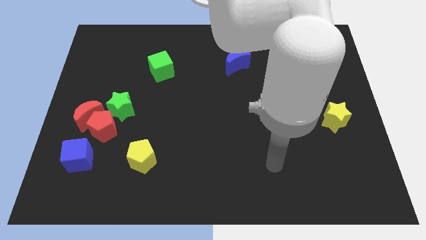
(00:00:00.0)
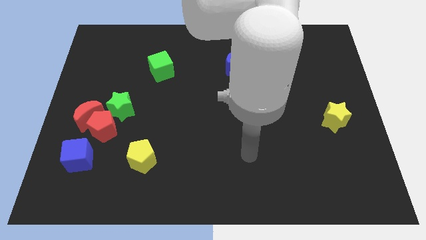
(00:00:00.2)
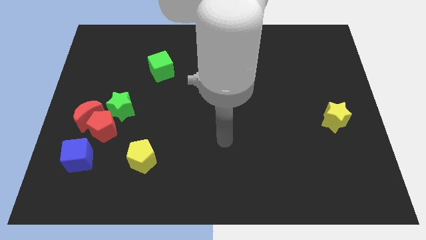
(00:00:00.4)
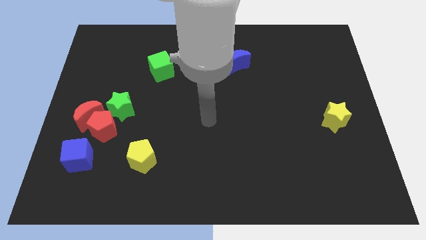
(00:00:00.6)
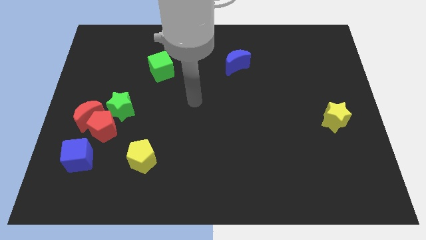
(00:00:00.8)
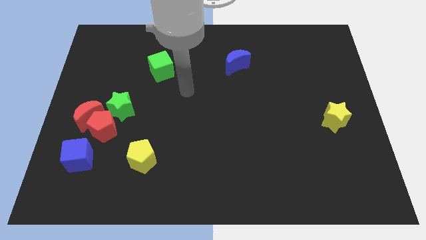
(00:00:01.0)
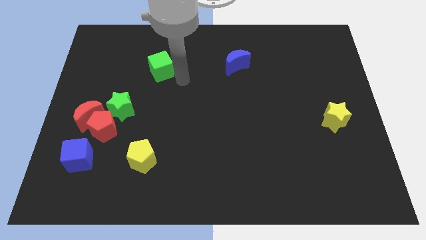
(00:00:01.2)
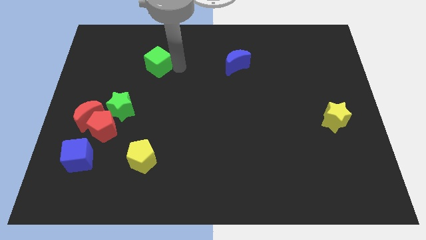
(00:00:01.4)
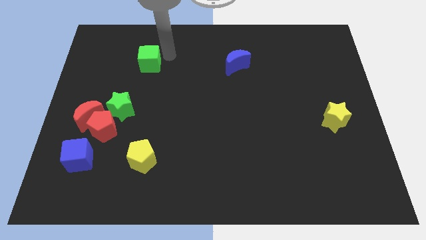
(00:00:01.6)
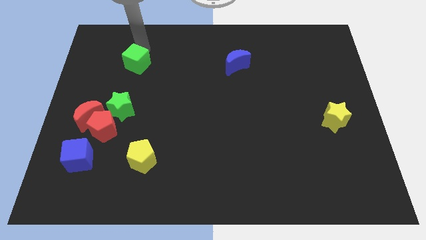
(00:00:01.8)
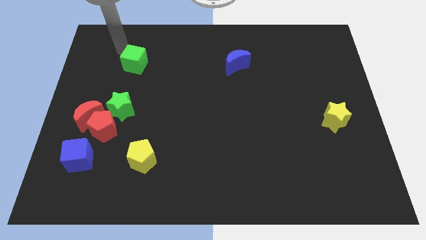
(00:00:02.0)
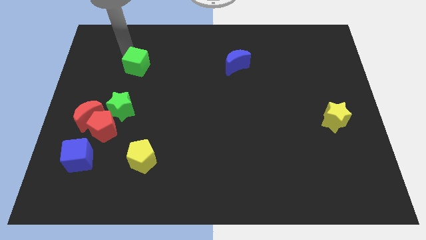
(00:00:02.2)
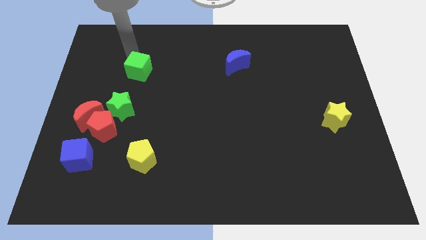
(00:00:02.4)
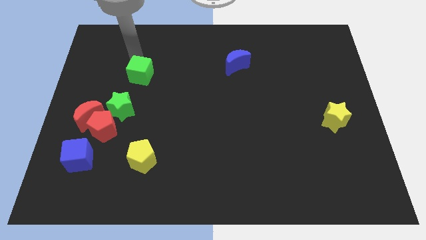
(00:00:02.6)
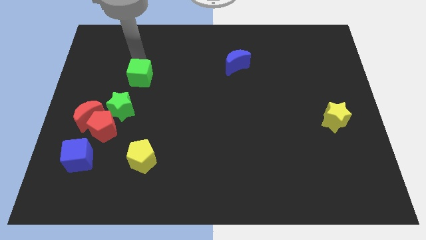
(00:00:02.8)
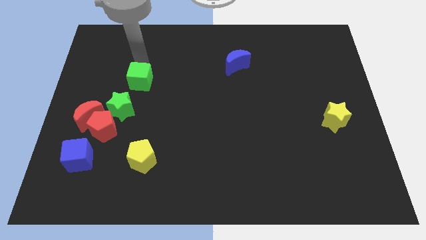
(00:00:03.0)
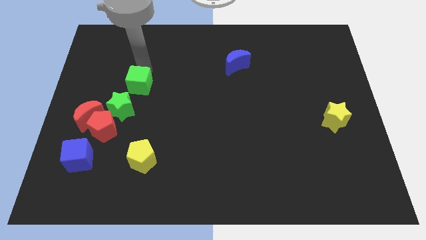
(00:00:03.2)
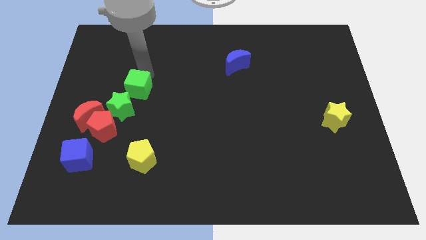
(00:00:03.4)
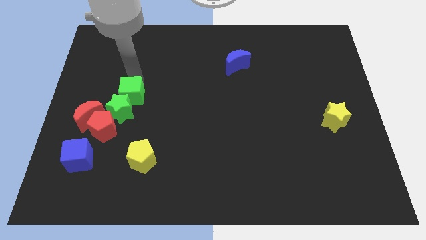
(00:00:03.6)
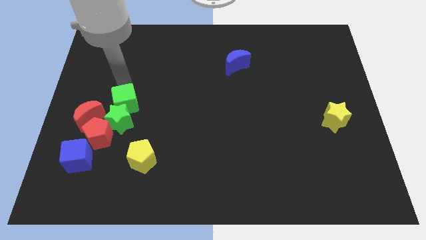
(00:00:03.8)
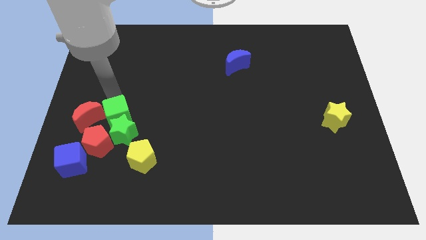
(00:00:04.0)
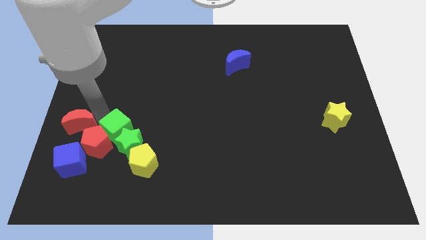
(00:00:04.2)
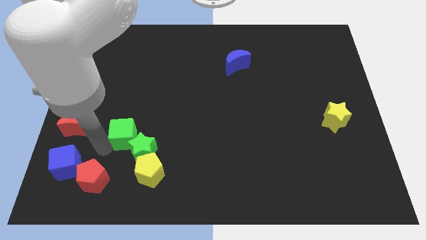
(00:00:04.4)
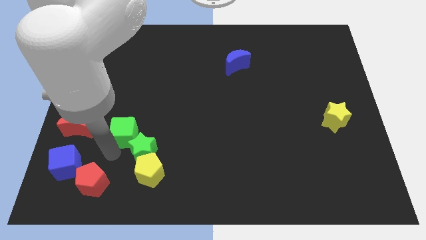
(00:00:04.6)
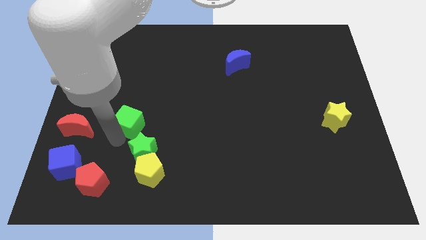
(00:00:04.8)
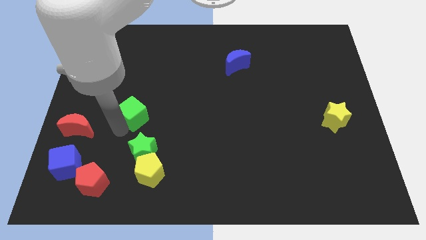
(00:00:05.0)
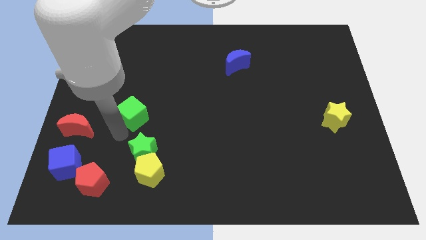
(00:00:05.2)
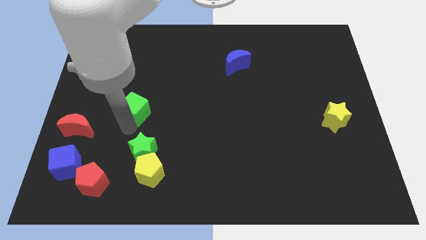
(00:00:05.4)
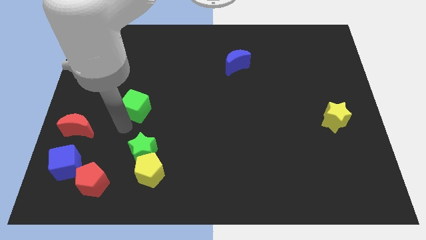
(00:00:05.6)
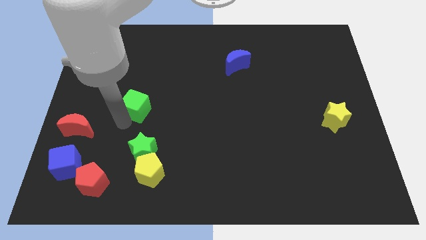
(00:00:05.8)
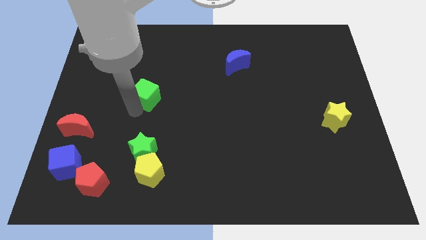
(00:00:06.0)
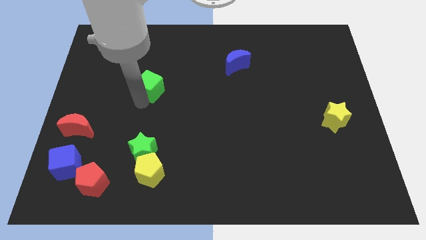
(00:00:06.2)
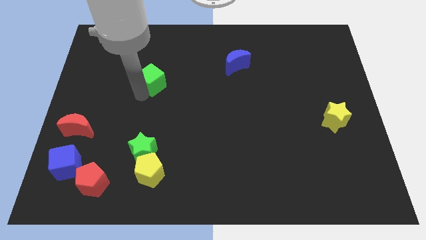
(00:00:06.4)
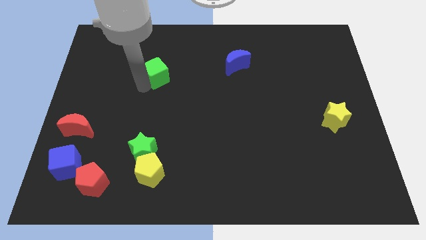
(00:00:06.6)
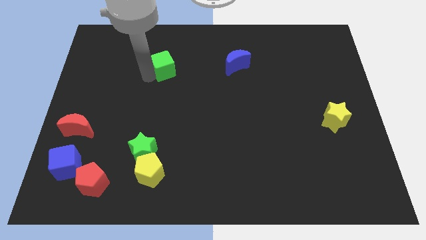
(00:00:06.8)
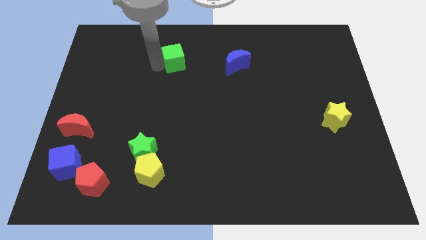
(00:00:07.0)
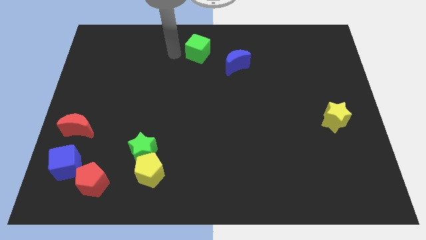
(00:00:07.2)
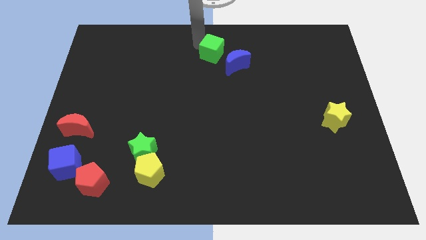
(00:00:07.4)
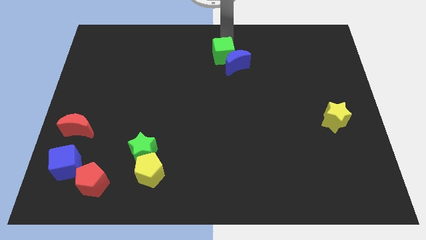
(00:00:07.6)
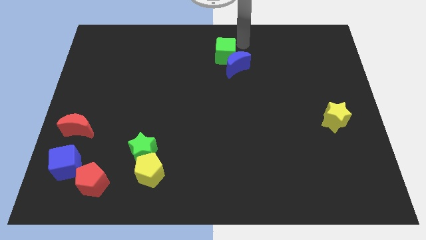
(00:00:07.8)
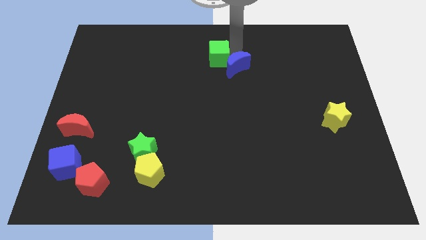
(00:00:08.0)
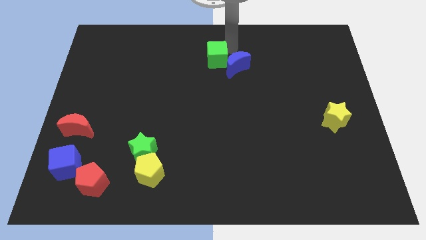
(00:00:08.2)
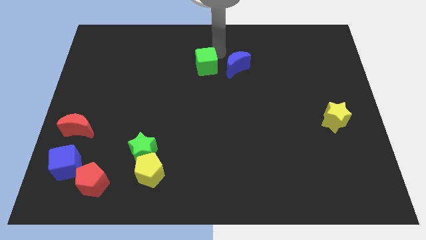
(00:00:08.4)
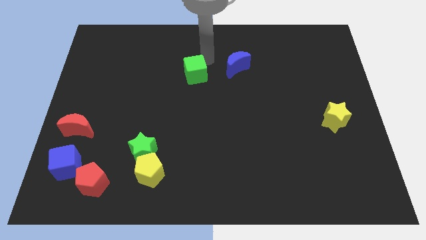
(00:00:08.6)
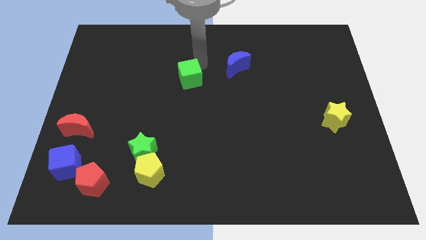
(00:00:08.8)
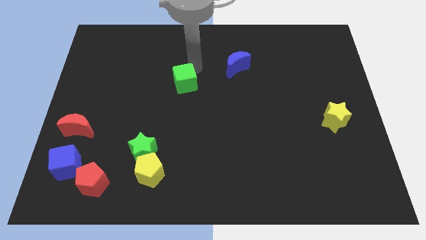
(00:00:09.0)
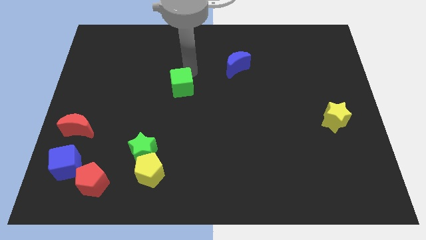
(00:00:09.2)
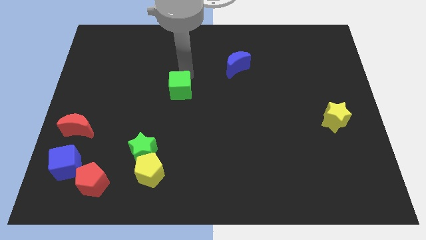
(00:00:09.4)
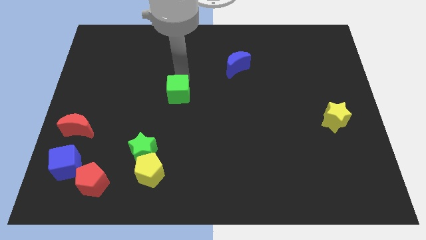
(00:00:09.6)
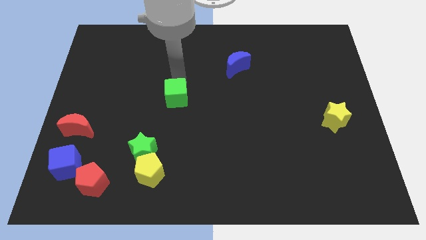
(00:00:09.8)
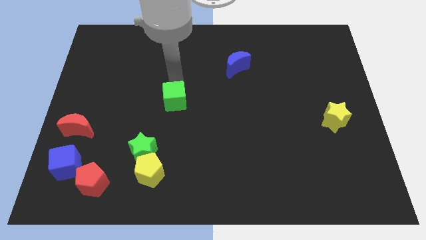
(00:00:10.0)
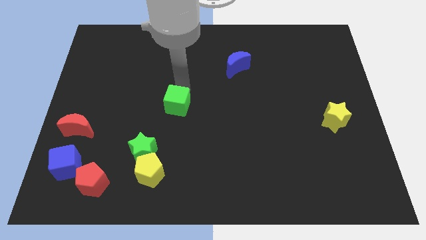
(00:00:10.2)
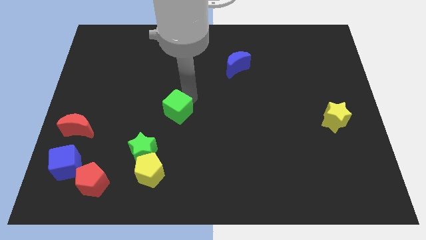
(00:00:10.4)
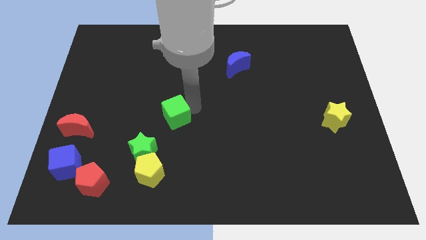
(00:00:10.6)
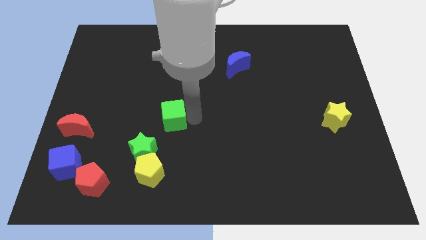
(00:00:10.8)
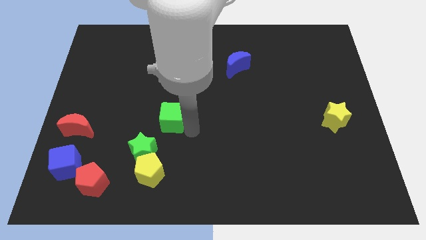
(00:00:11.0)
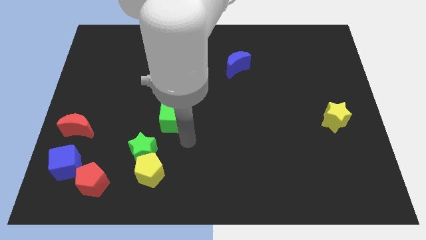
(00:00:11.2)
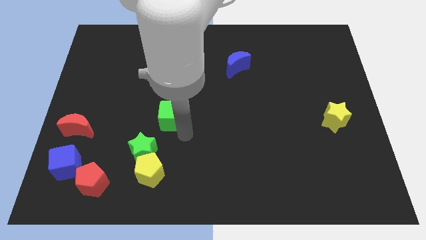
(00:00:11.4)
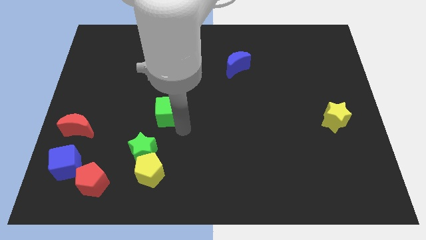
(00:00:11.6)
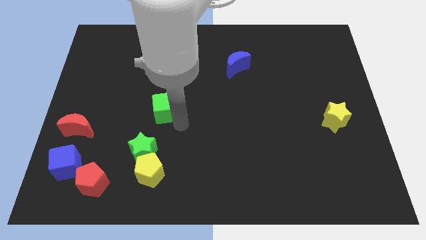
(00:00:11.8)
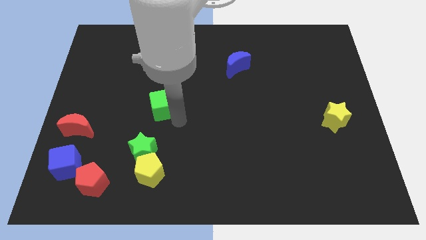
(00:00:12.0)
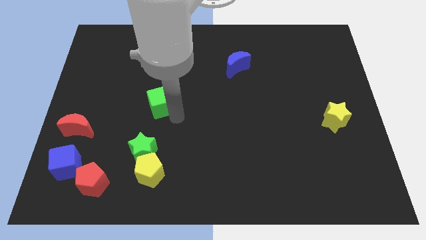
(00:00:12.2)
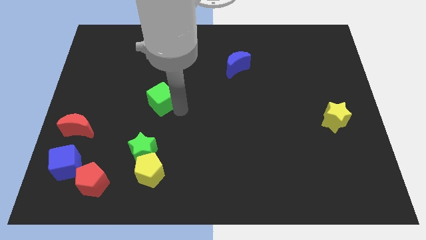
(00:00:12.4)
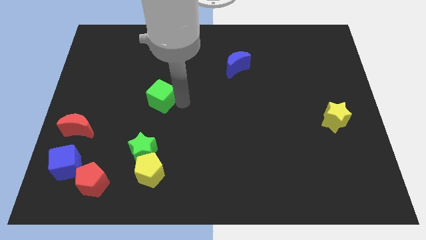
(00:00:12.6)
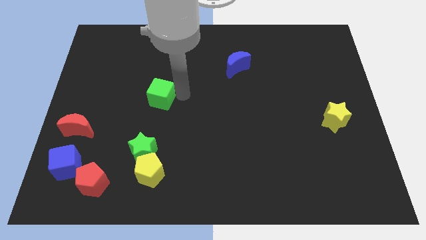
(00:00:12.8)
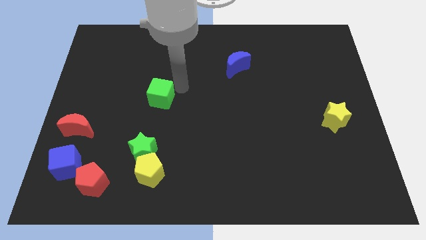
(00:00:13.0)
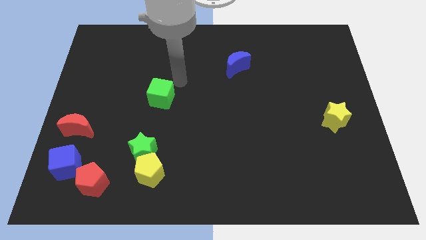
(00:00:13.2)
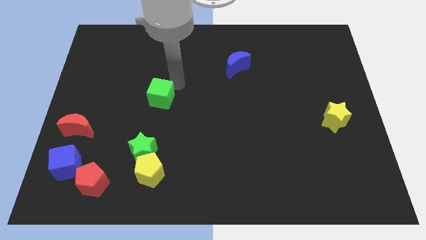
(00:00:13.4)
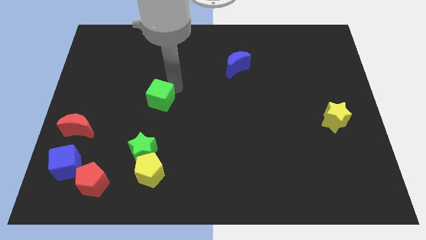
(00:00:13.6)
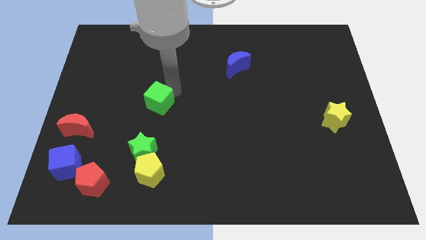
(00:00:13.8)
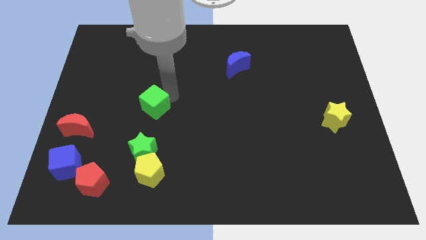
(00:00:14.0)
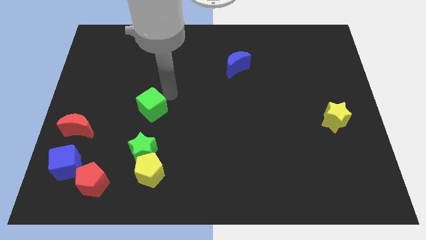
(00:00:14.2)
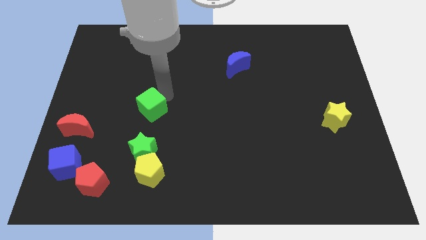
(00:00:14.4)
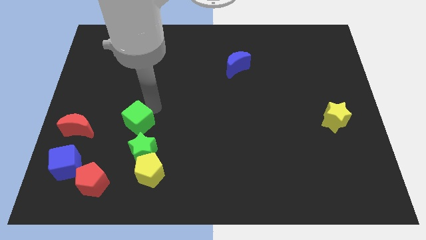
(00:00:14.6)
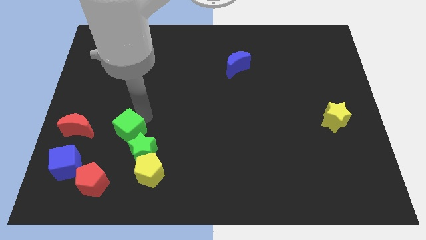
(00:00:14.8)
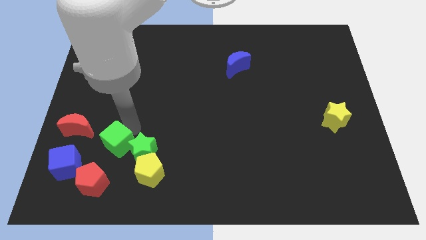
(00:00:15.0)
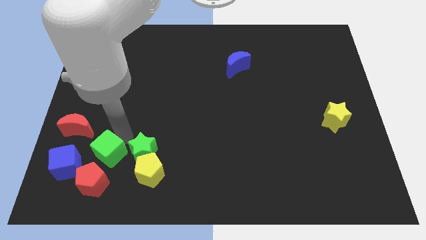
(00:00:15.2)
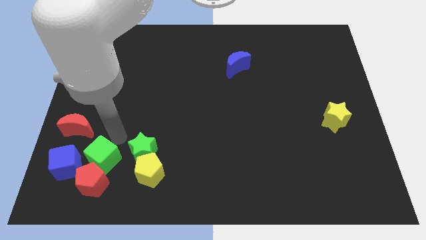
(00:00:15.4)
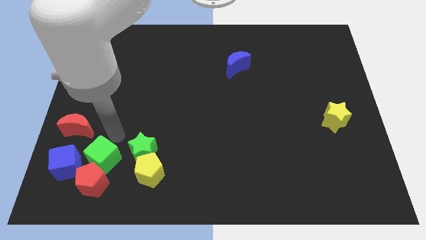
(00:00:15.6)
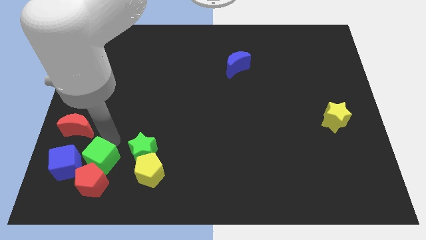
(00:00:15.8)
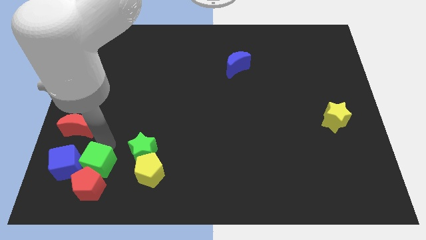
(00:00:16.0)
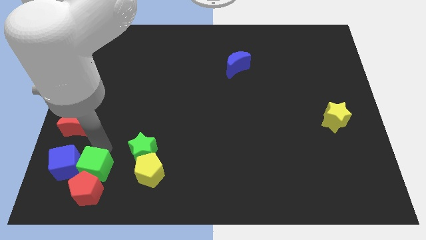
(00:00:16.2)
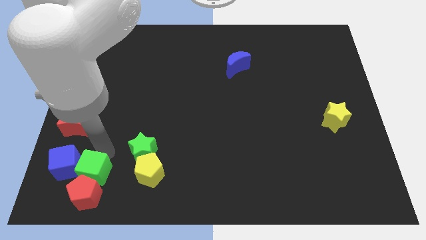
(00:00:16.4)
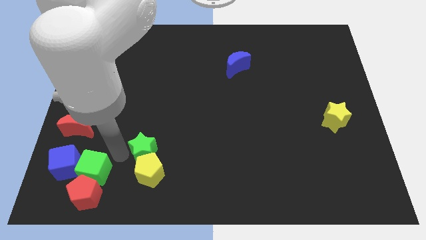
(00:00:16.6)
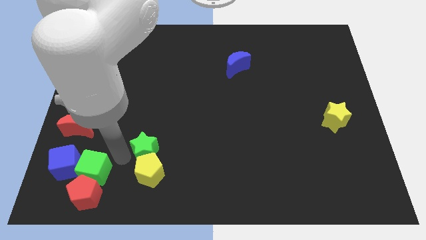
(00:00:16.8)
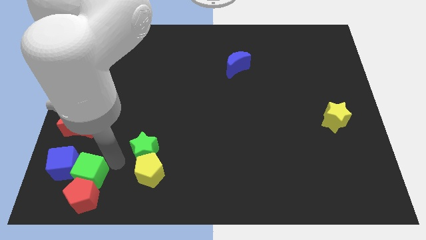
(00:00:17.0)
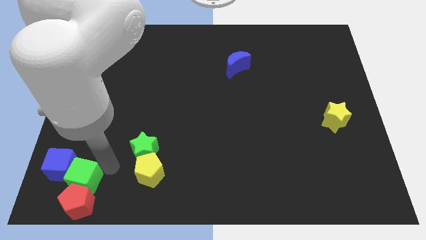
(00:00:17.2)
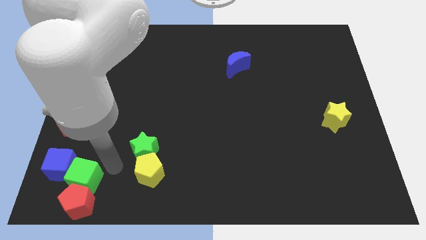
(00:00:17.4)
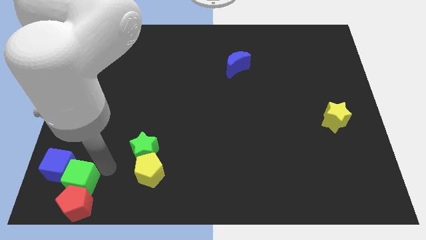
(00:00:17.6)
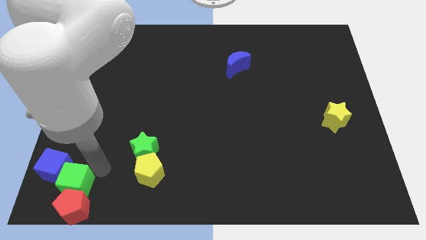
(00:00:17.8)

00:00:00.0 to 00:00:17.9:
move the green cube to the bottom left corner
